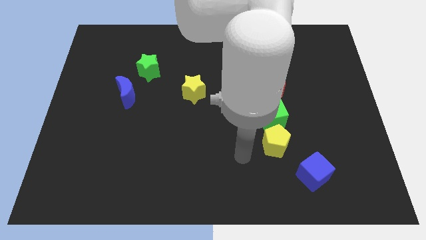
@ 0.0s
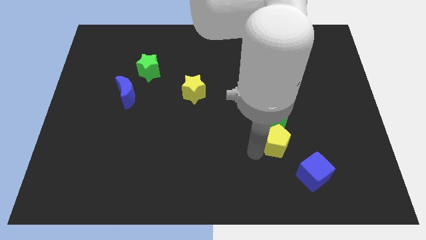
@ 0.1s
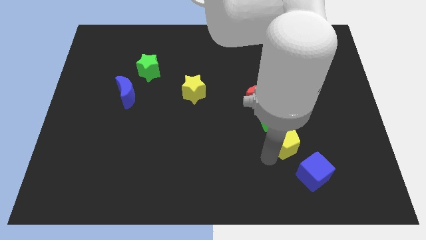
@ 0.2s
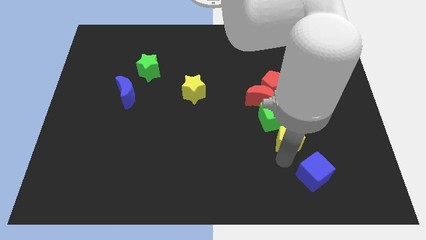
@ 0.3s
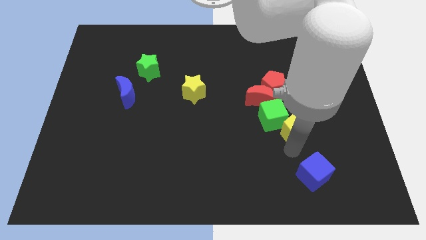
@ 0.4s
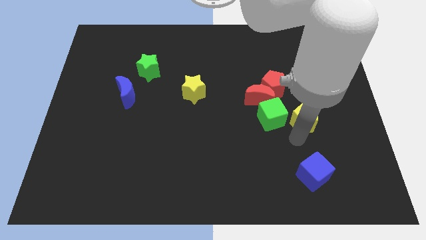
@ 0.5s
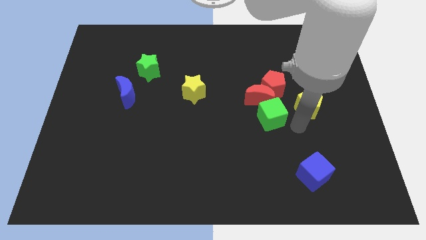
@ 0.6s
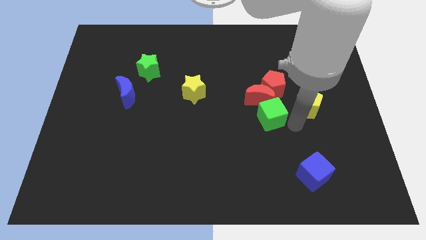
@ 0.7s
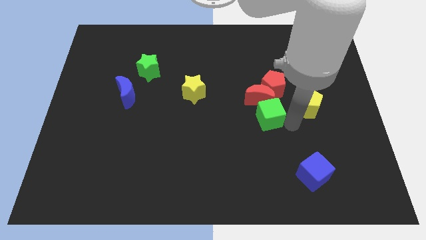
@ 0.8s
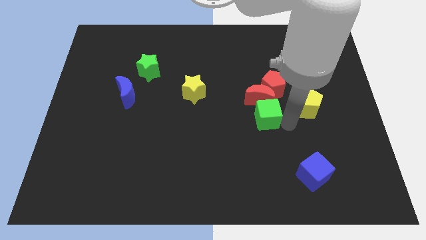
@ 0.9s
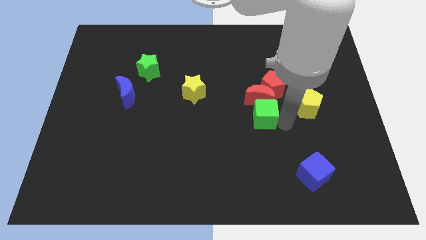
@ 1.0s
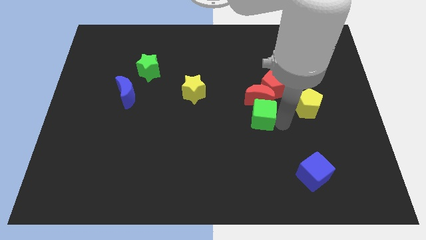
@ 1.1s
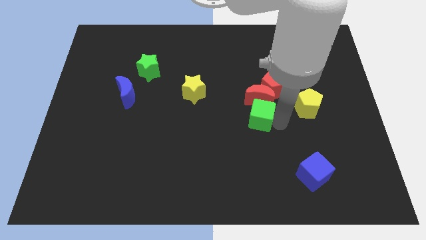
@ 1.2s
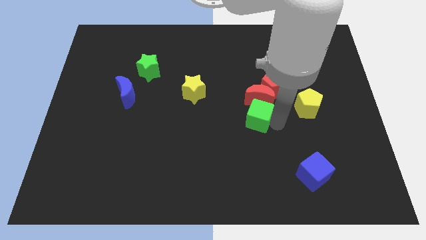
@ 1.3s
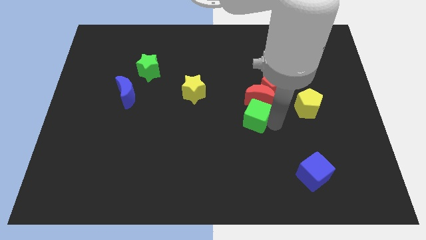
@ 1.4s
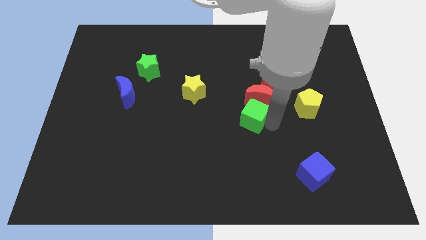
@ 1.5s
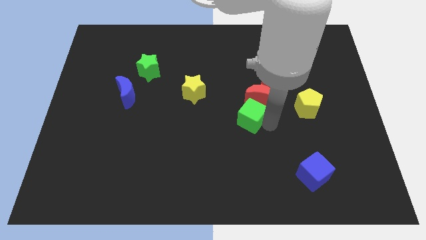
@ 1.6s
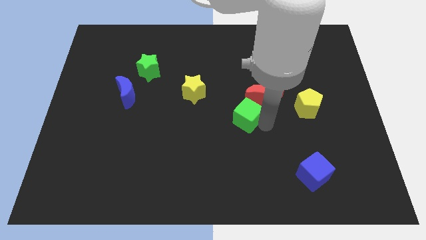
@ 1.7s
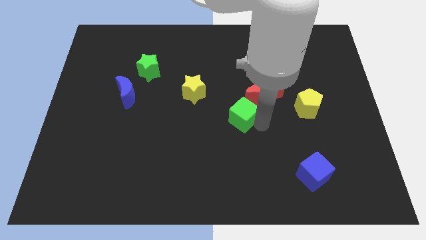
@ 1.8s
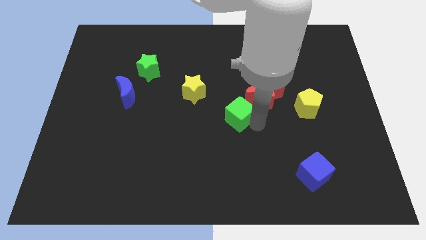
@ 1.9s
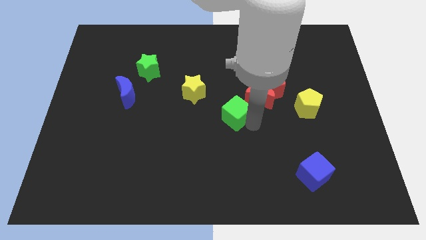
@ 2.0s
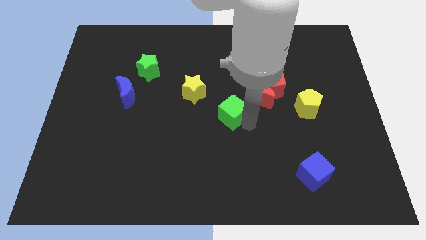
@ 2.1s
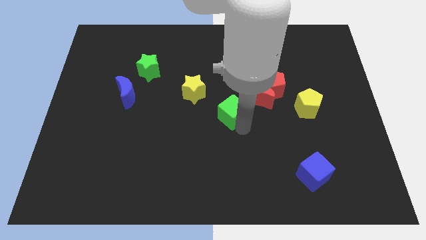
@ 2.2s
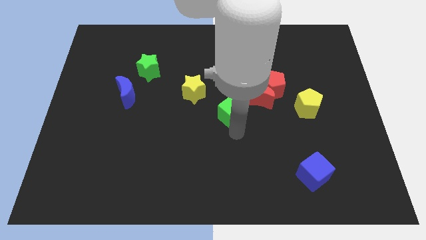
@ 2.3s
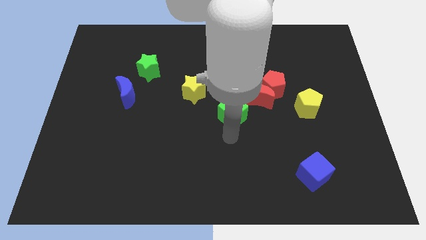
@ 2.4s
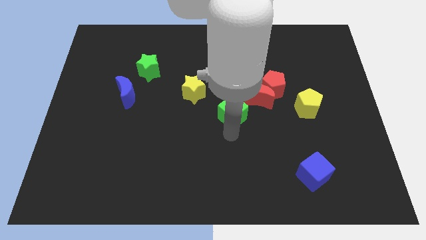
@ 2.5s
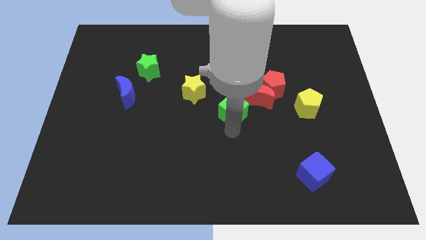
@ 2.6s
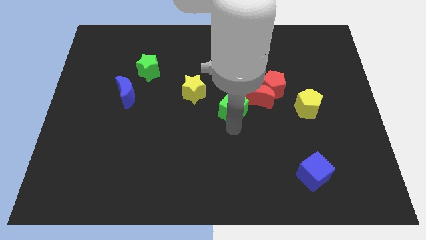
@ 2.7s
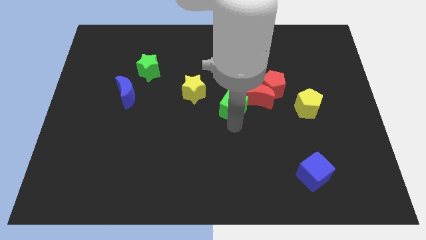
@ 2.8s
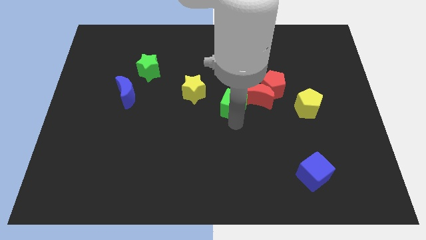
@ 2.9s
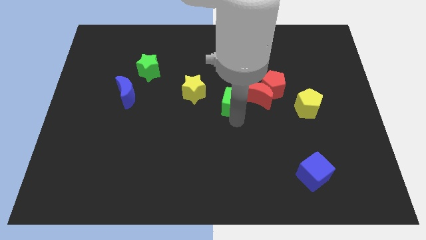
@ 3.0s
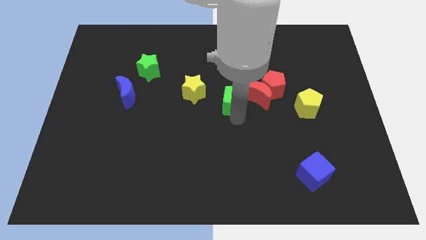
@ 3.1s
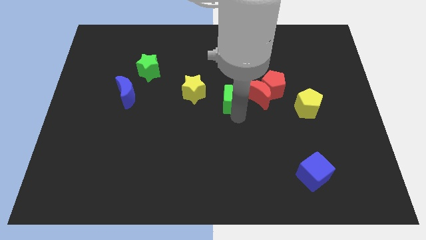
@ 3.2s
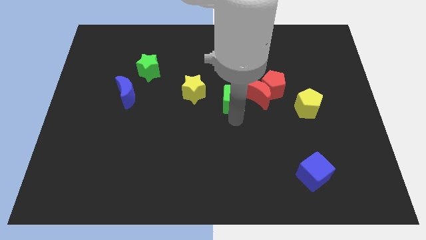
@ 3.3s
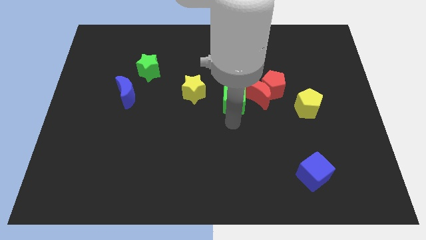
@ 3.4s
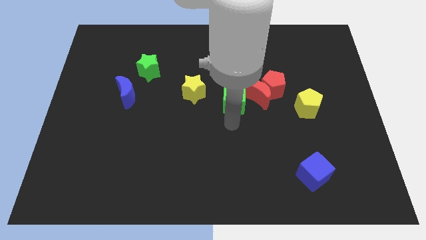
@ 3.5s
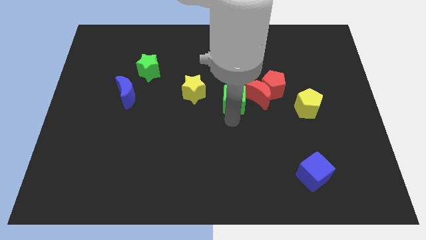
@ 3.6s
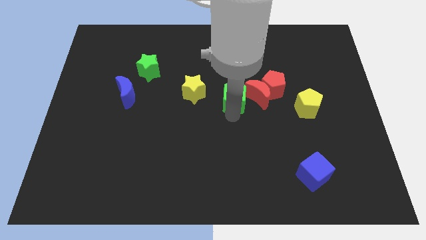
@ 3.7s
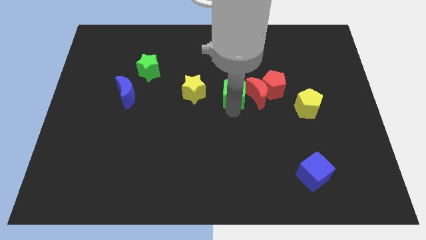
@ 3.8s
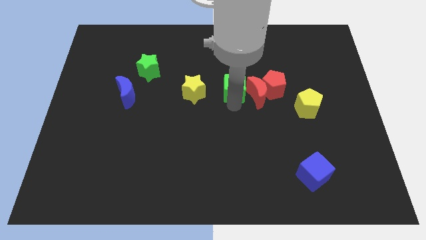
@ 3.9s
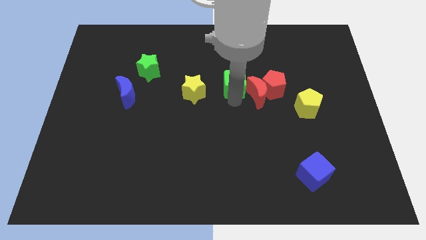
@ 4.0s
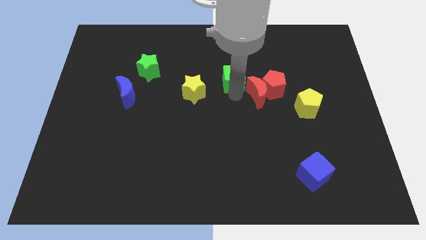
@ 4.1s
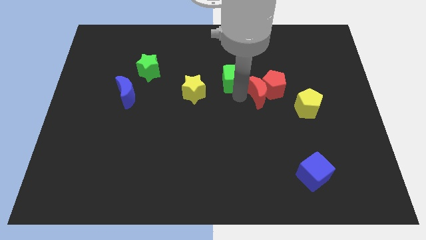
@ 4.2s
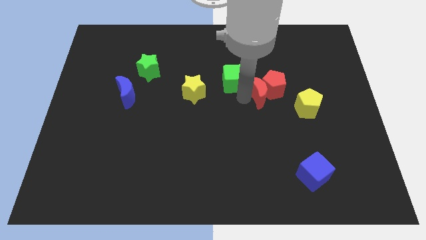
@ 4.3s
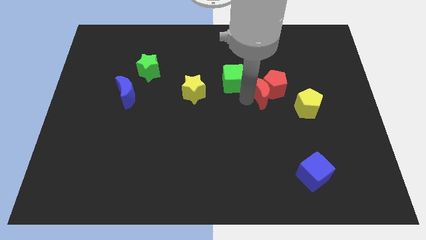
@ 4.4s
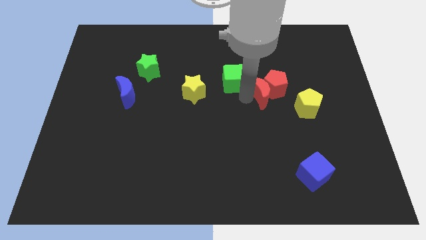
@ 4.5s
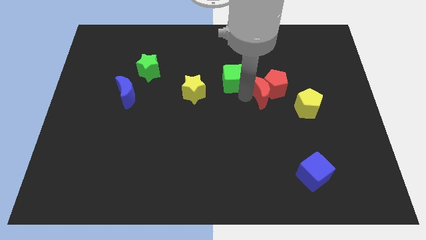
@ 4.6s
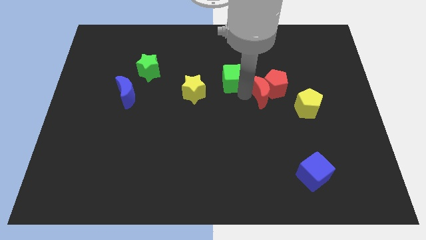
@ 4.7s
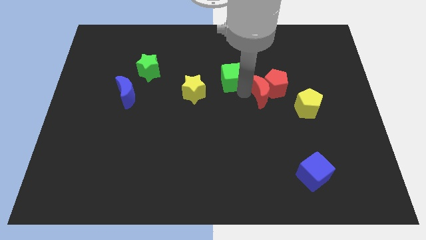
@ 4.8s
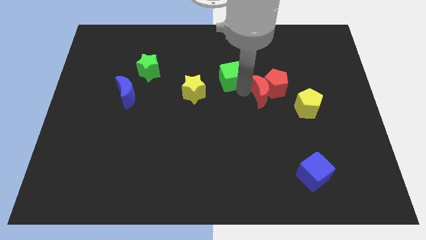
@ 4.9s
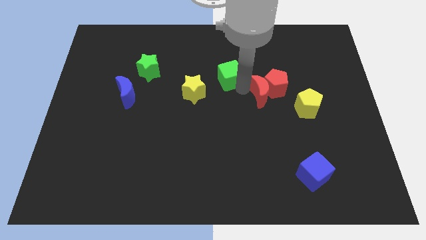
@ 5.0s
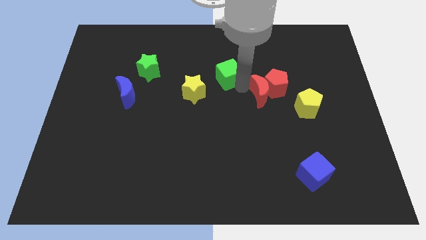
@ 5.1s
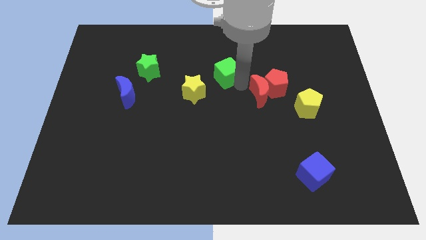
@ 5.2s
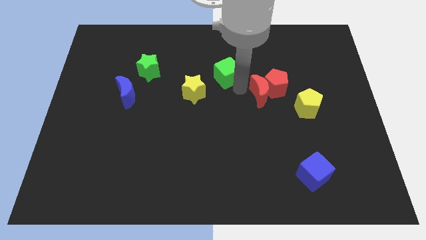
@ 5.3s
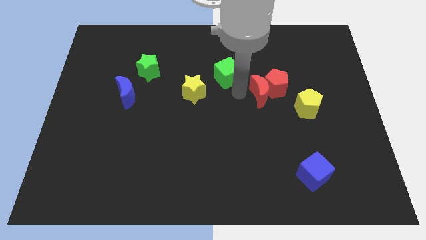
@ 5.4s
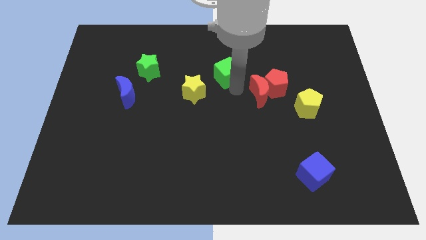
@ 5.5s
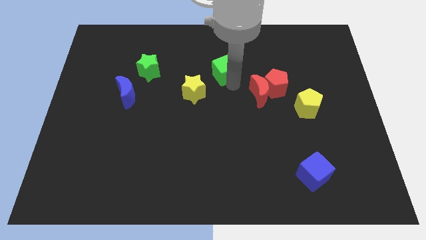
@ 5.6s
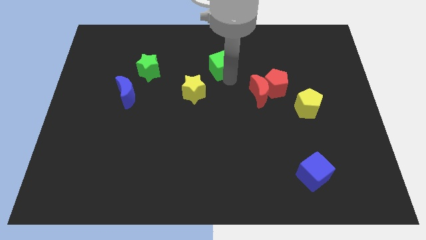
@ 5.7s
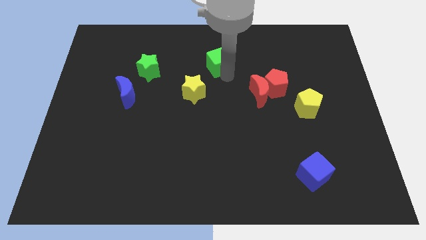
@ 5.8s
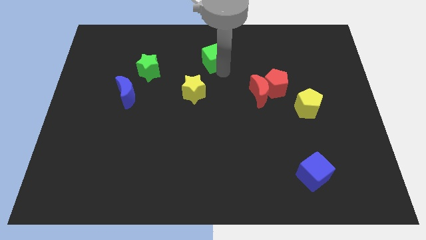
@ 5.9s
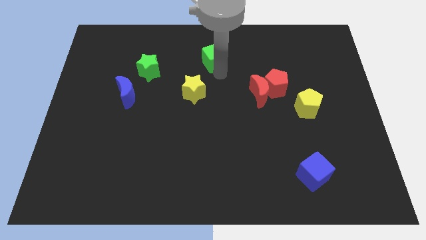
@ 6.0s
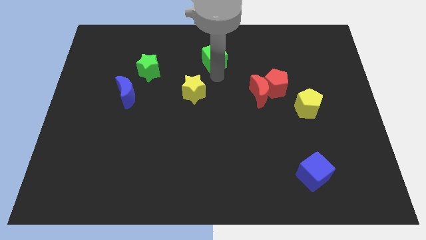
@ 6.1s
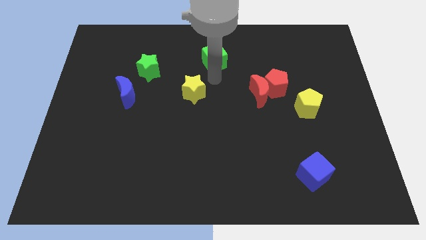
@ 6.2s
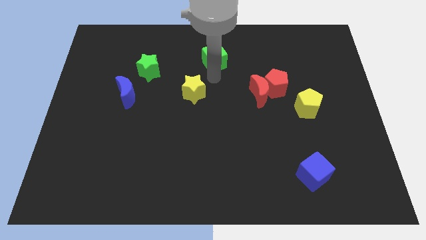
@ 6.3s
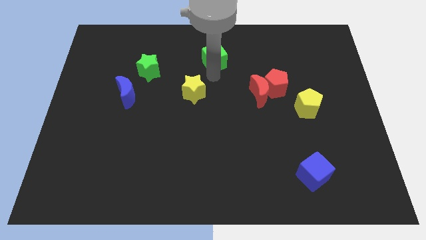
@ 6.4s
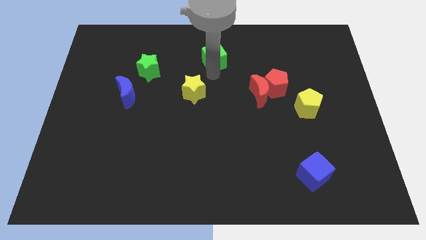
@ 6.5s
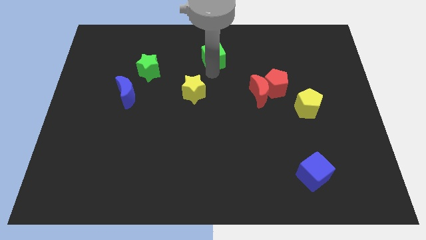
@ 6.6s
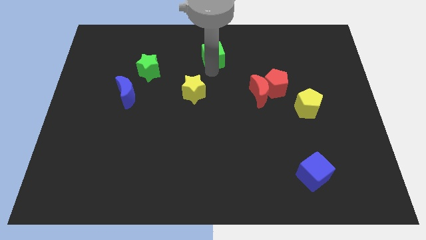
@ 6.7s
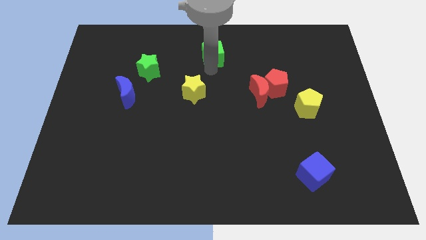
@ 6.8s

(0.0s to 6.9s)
push the green cube to the towards your base
